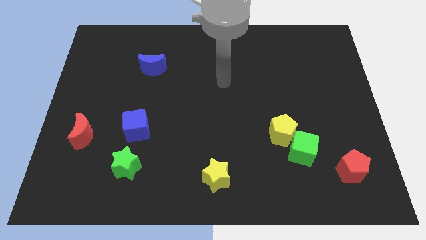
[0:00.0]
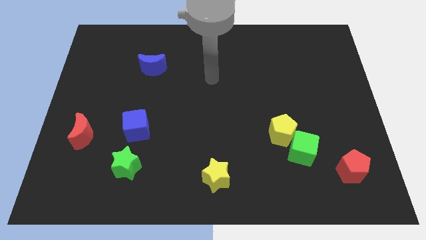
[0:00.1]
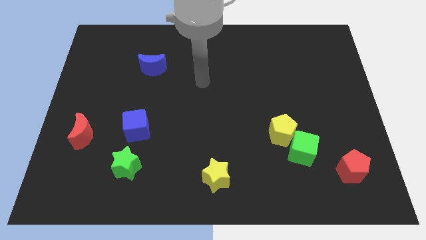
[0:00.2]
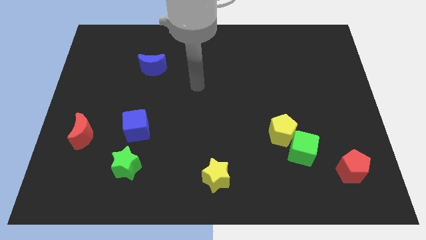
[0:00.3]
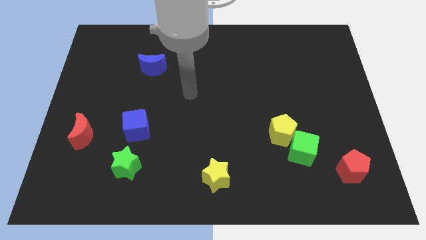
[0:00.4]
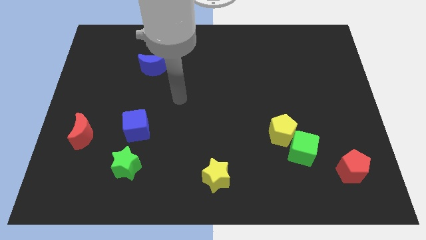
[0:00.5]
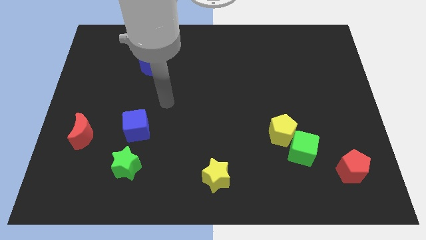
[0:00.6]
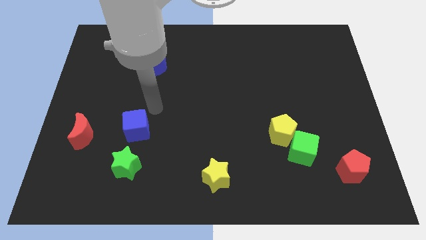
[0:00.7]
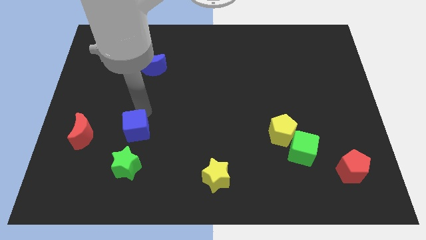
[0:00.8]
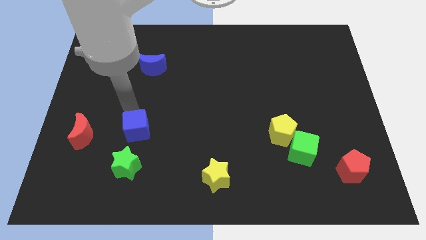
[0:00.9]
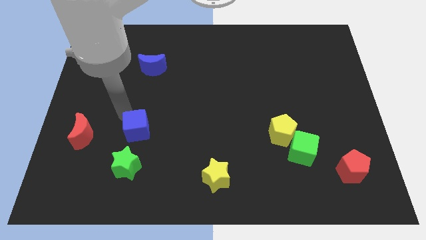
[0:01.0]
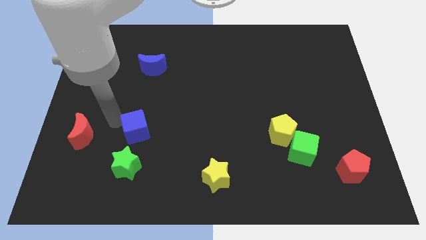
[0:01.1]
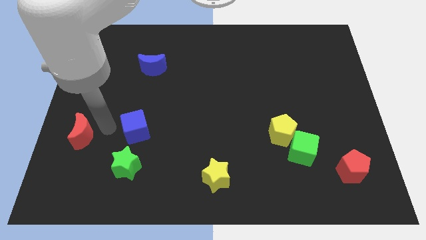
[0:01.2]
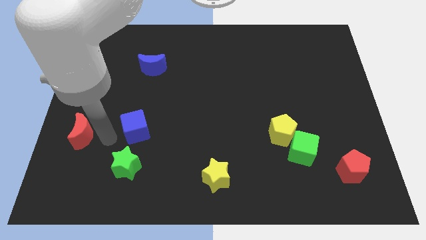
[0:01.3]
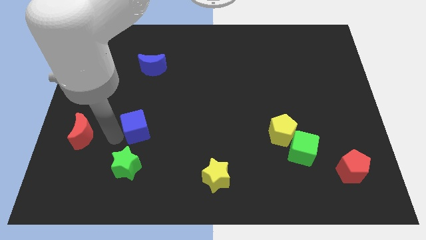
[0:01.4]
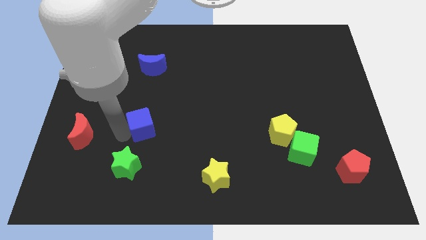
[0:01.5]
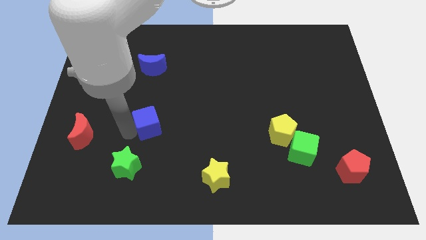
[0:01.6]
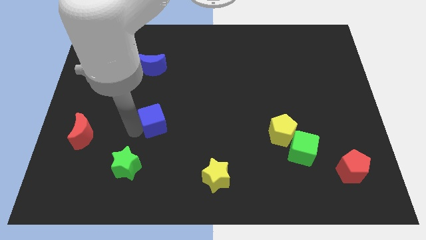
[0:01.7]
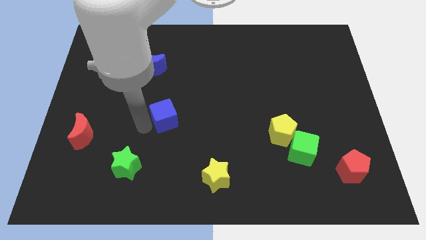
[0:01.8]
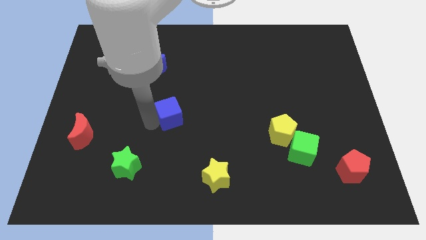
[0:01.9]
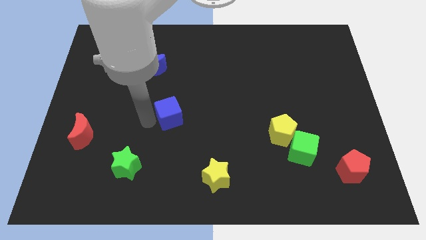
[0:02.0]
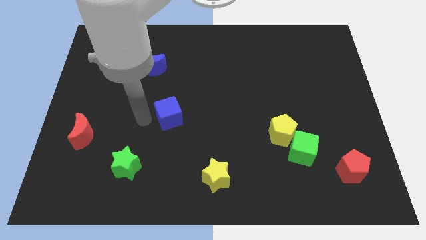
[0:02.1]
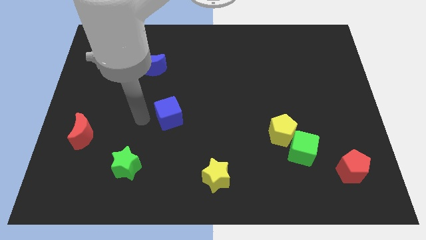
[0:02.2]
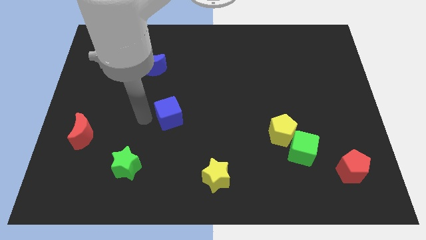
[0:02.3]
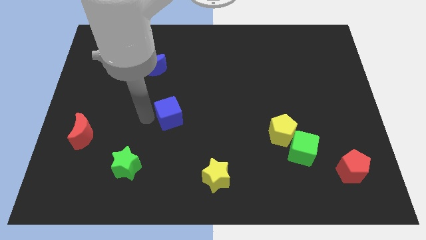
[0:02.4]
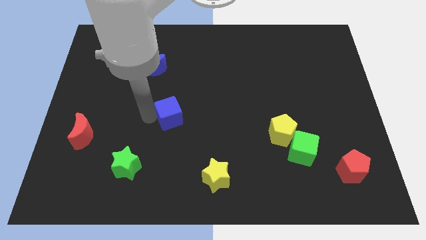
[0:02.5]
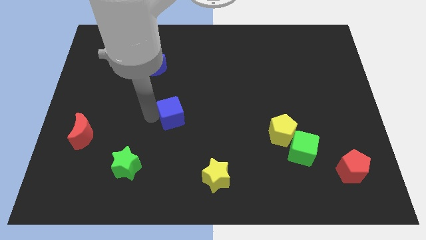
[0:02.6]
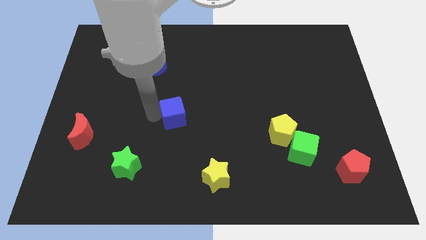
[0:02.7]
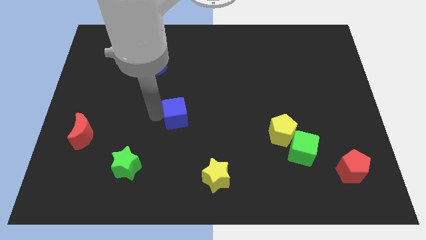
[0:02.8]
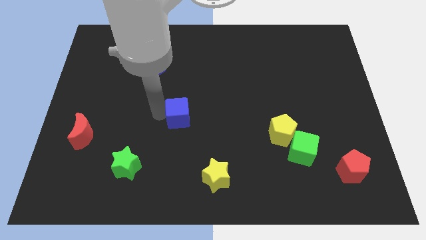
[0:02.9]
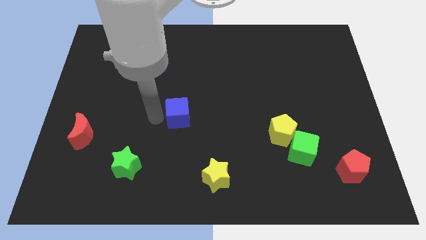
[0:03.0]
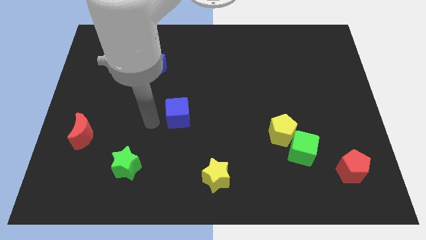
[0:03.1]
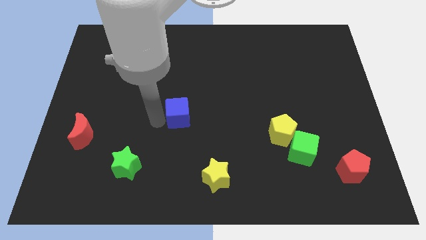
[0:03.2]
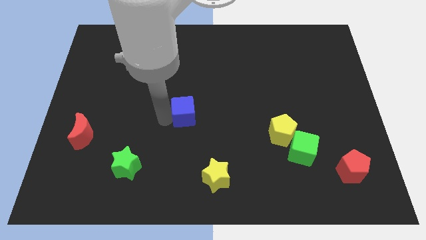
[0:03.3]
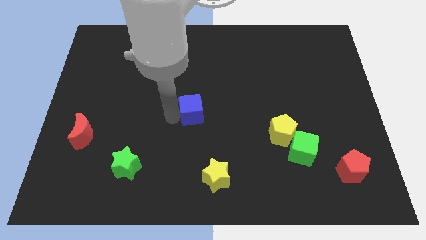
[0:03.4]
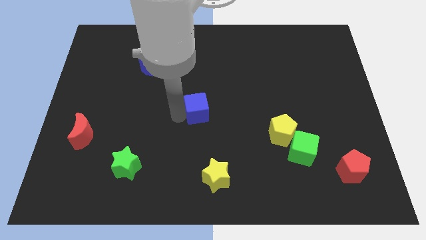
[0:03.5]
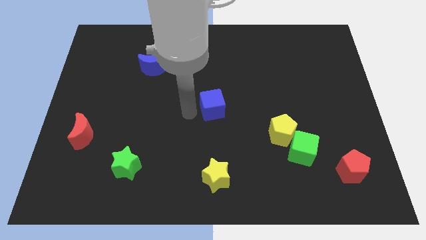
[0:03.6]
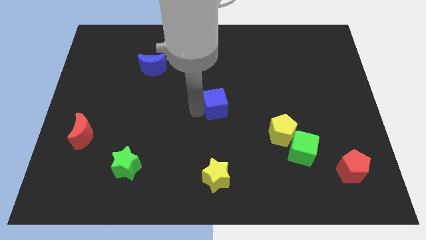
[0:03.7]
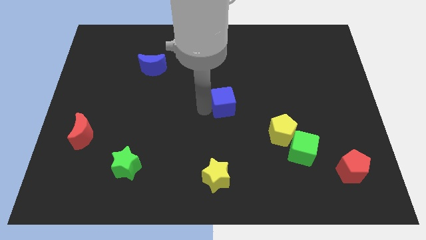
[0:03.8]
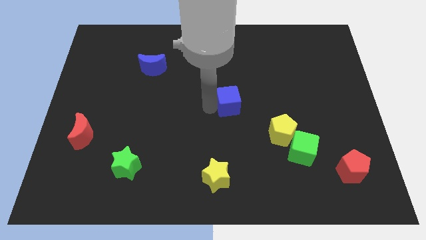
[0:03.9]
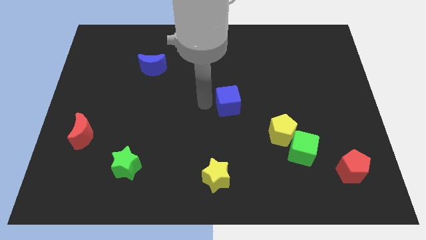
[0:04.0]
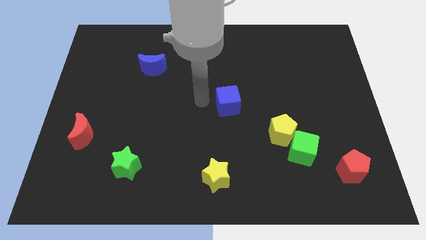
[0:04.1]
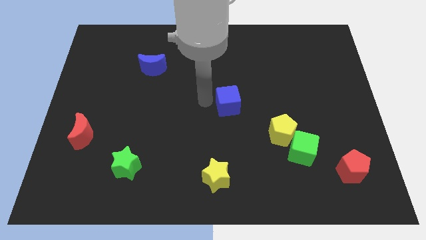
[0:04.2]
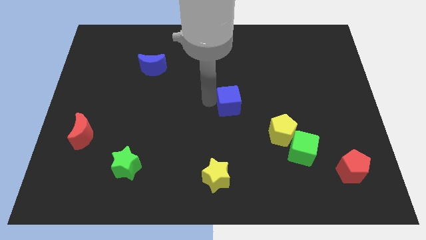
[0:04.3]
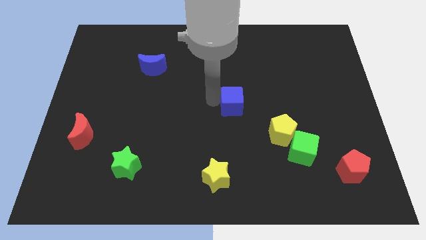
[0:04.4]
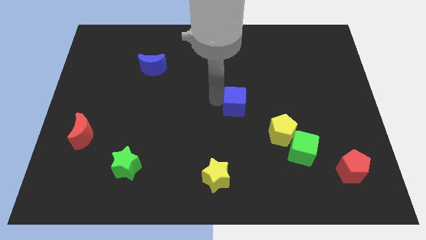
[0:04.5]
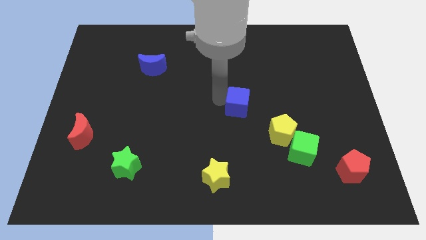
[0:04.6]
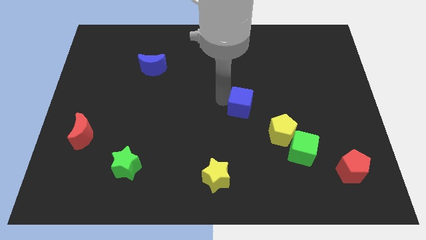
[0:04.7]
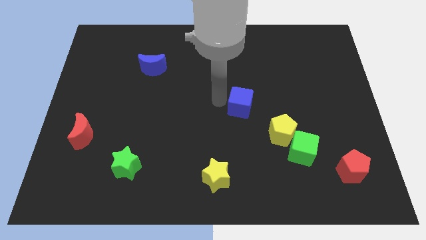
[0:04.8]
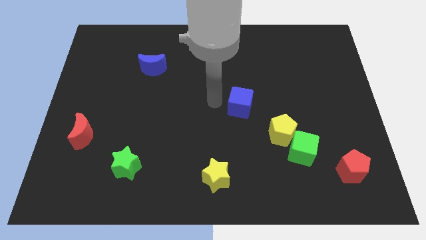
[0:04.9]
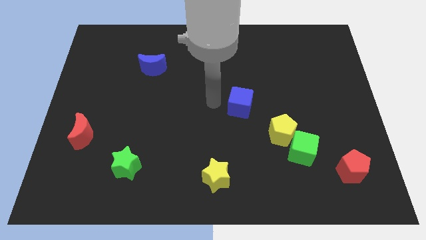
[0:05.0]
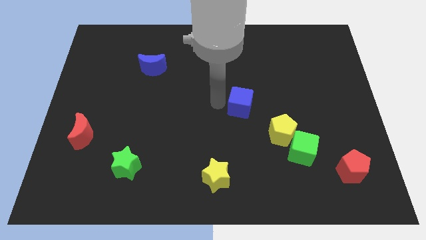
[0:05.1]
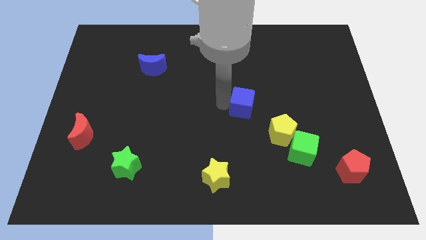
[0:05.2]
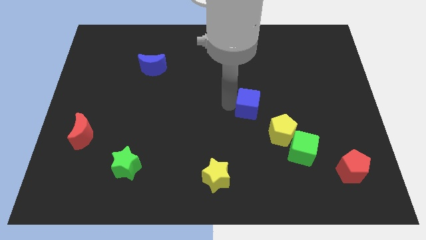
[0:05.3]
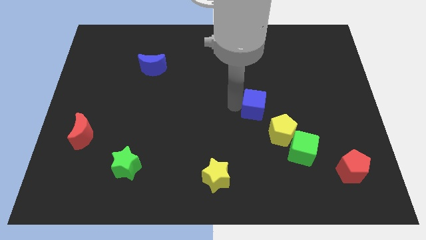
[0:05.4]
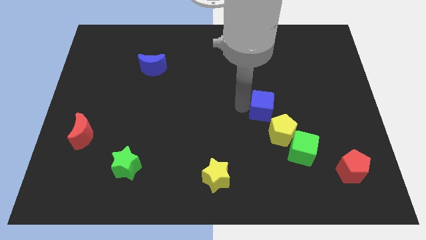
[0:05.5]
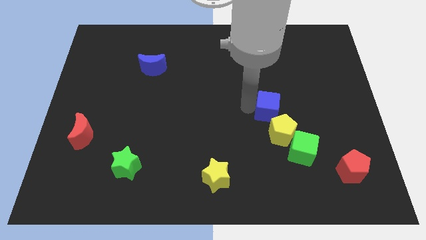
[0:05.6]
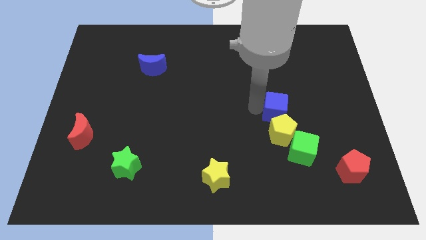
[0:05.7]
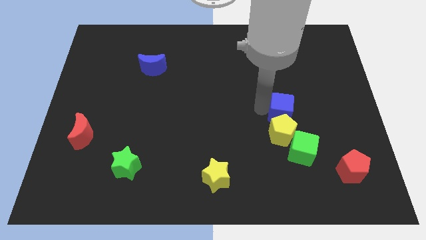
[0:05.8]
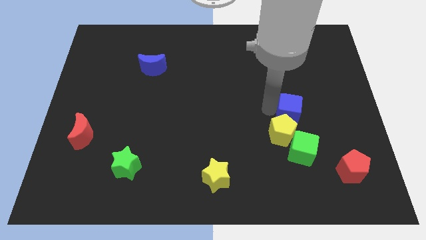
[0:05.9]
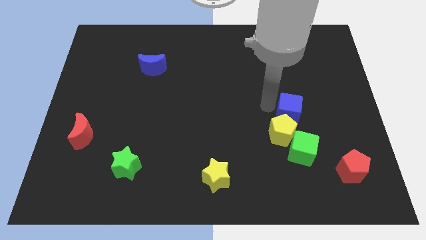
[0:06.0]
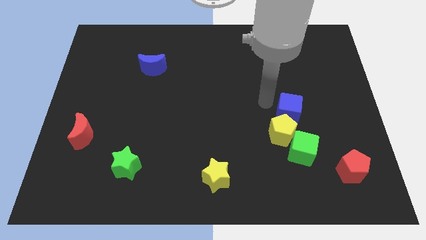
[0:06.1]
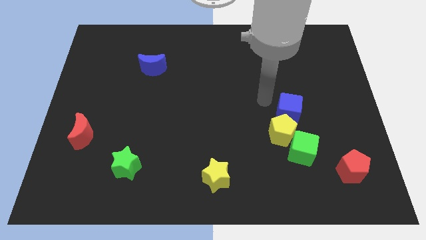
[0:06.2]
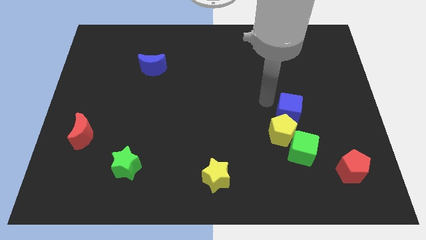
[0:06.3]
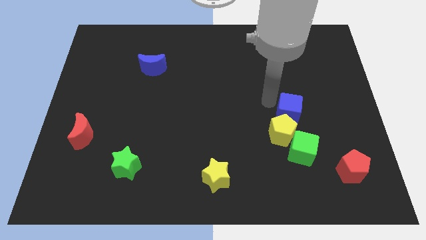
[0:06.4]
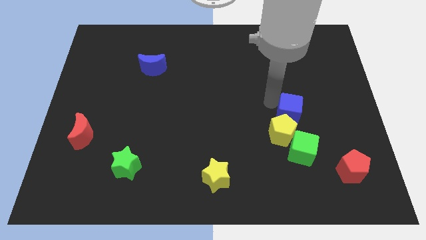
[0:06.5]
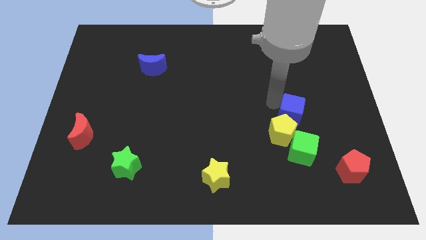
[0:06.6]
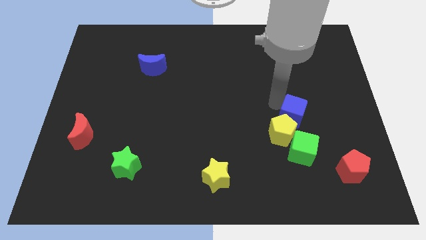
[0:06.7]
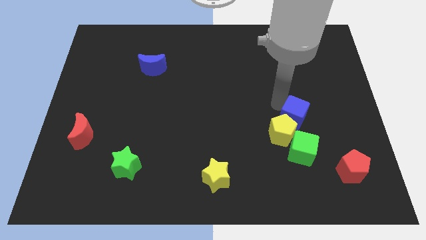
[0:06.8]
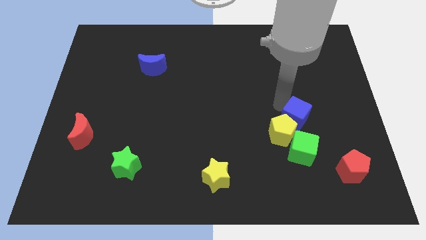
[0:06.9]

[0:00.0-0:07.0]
push the blue cube to the right side of the yellow pentagon

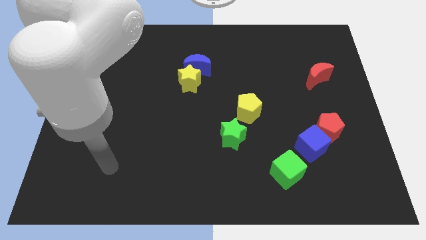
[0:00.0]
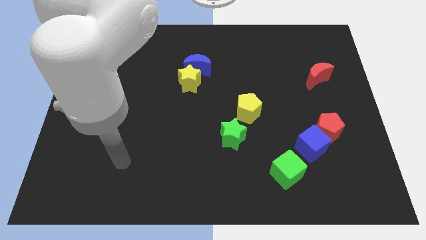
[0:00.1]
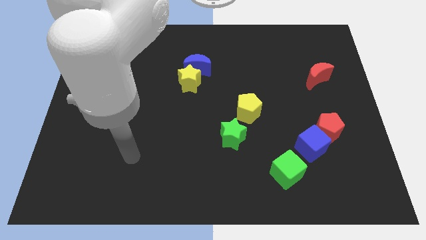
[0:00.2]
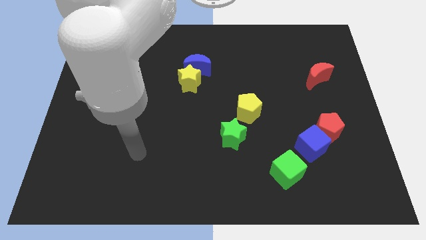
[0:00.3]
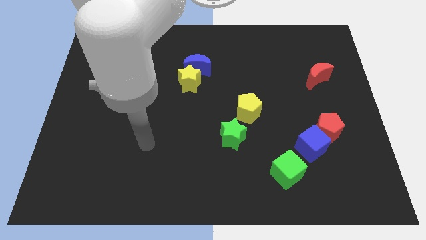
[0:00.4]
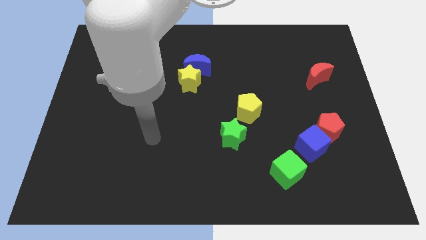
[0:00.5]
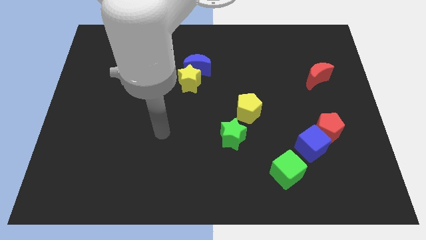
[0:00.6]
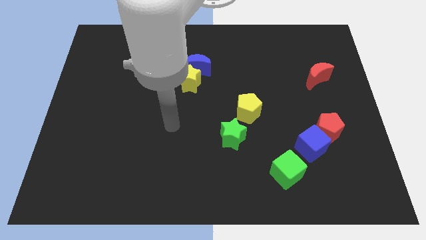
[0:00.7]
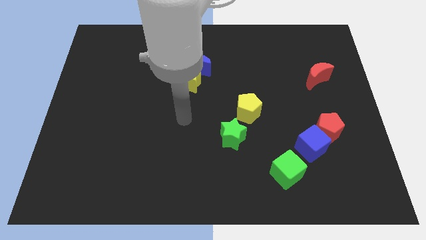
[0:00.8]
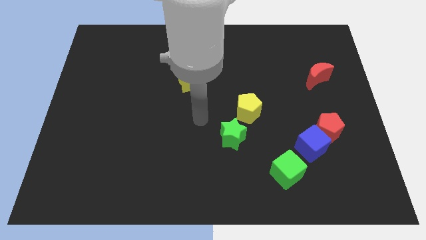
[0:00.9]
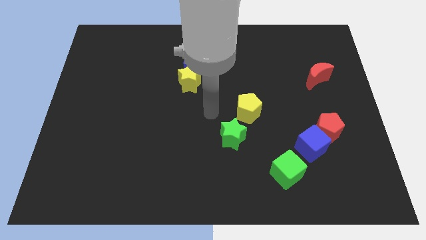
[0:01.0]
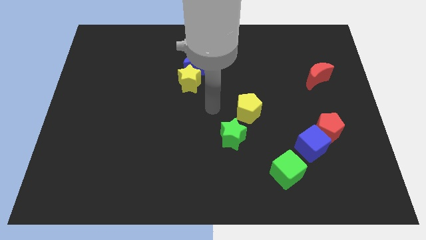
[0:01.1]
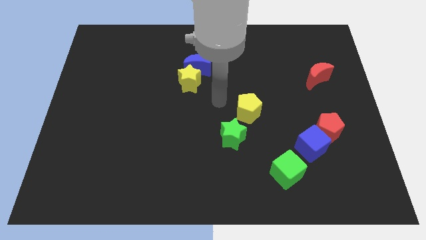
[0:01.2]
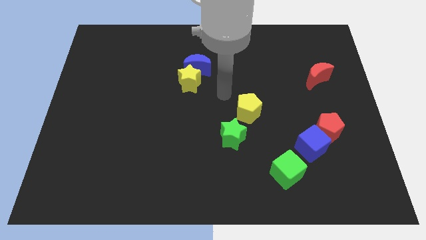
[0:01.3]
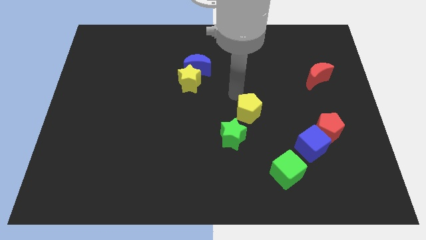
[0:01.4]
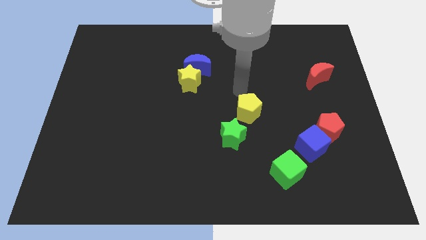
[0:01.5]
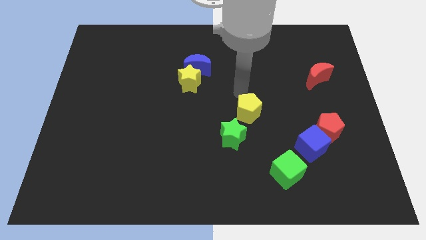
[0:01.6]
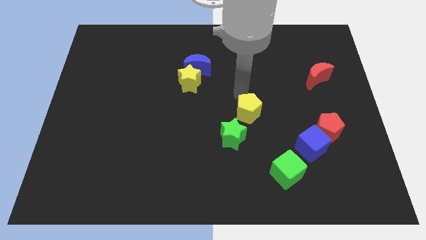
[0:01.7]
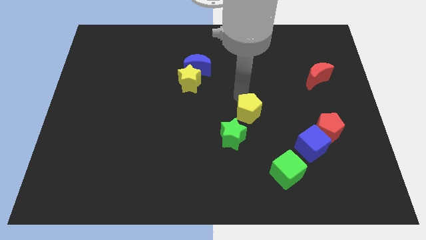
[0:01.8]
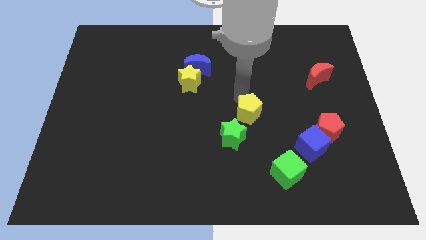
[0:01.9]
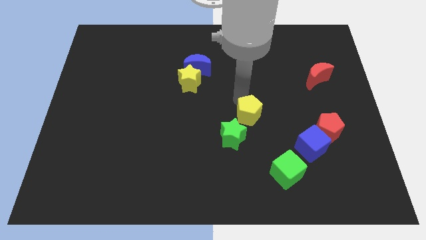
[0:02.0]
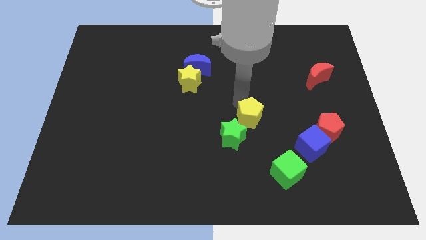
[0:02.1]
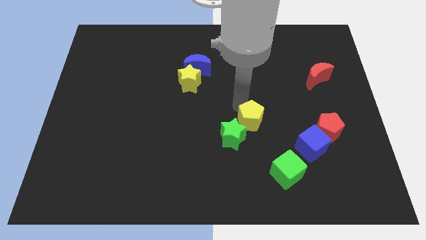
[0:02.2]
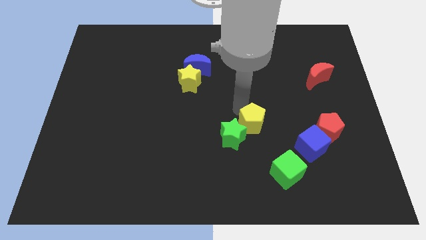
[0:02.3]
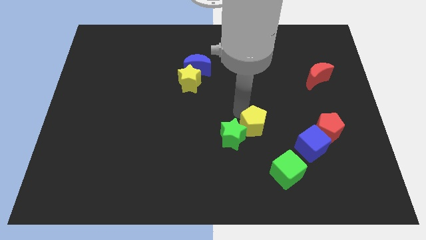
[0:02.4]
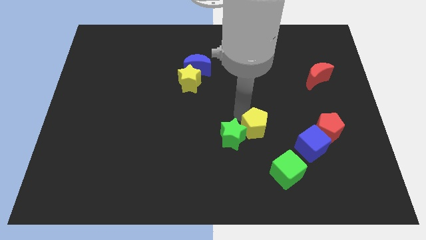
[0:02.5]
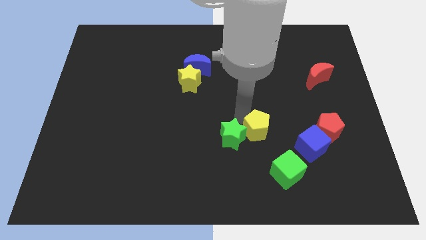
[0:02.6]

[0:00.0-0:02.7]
move the yellow pentagon to the top left side of the green cube
